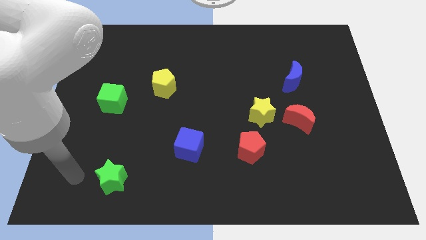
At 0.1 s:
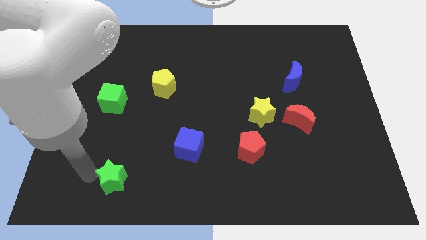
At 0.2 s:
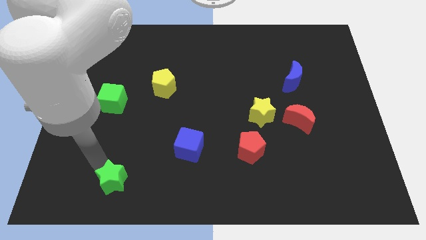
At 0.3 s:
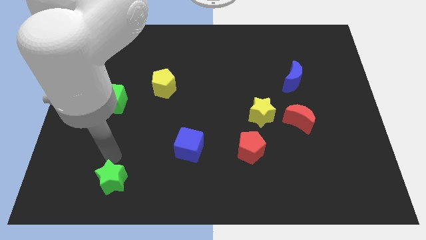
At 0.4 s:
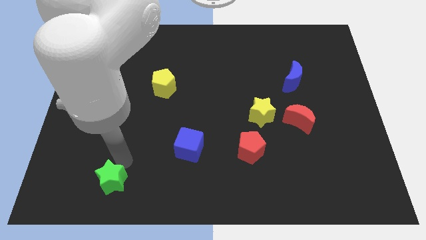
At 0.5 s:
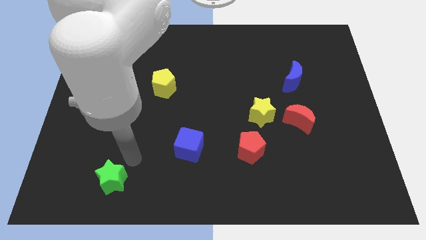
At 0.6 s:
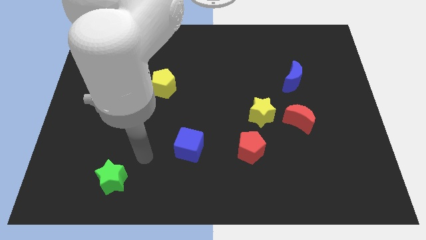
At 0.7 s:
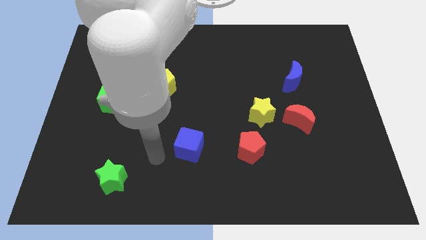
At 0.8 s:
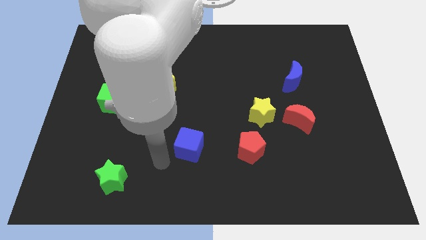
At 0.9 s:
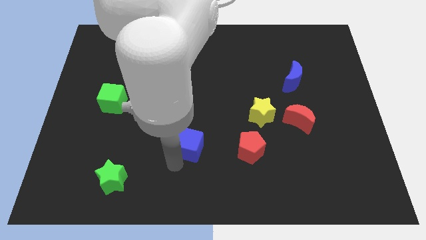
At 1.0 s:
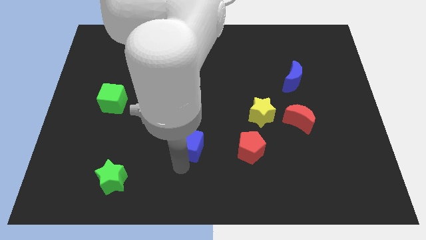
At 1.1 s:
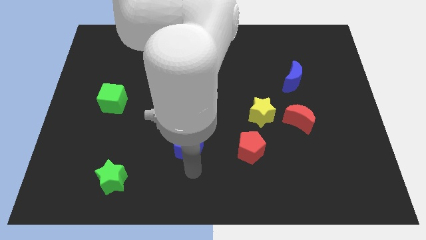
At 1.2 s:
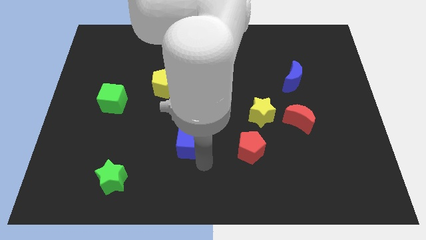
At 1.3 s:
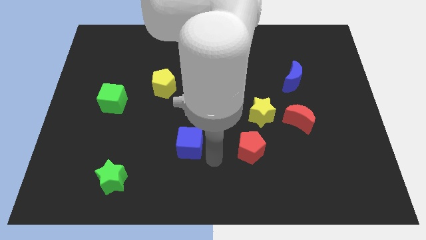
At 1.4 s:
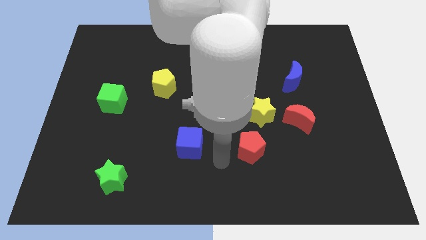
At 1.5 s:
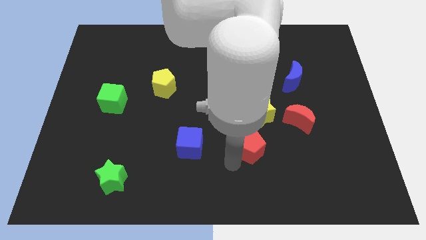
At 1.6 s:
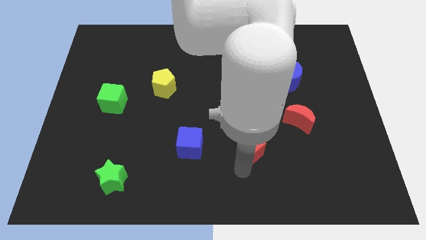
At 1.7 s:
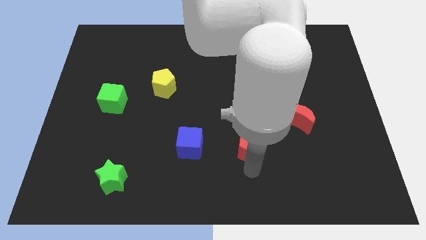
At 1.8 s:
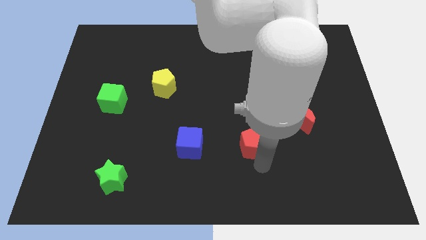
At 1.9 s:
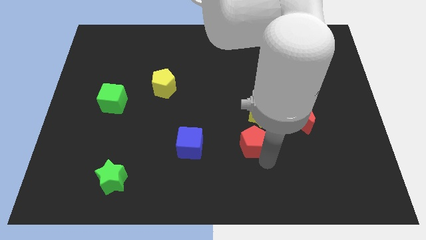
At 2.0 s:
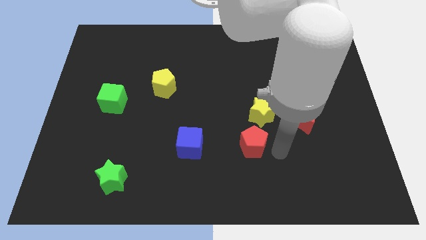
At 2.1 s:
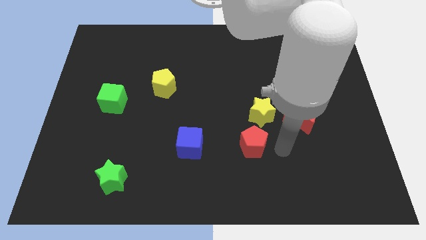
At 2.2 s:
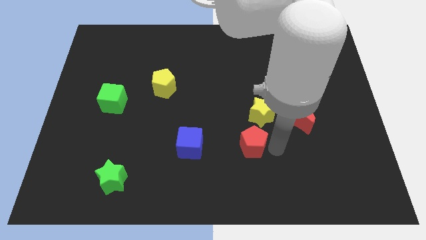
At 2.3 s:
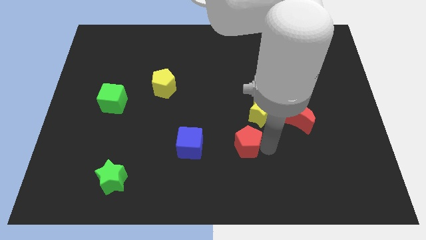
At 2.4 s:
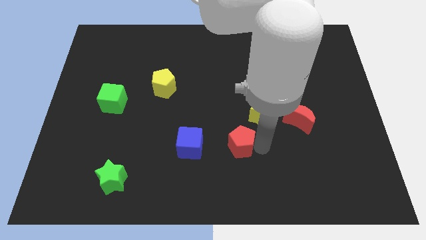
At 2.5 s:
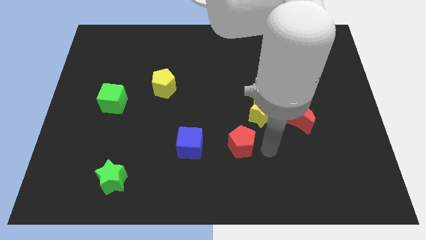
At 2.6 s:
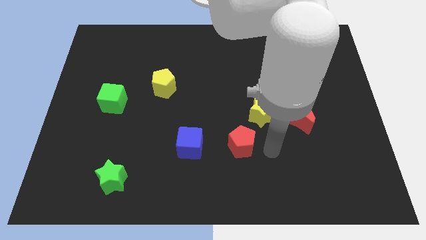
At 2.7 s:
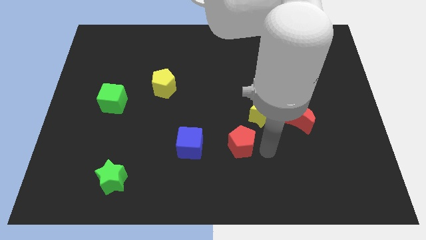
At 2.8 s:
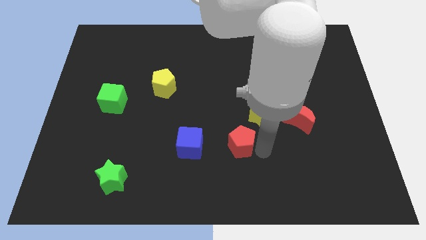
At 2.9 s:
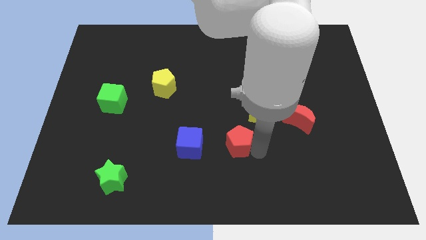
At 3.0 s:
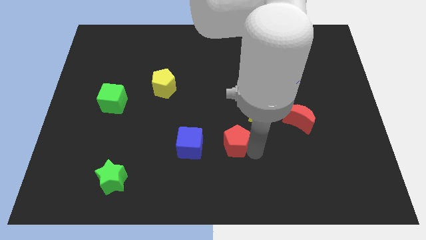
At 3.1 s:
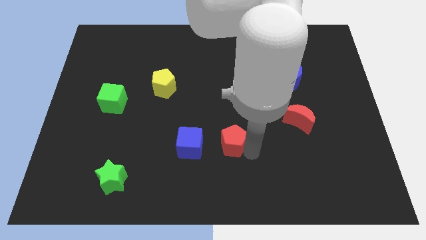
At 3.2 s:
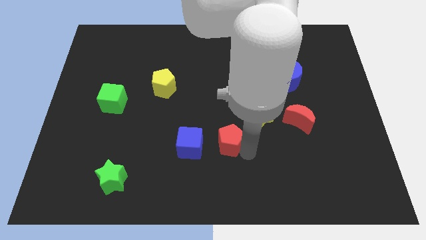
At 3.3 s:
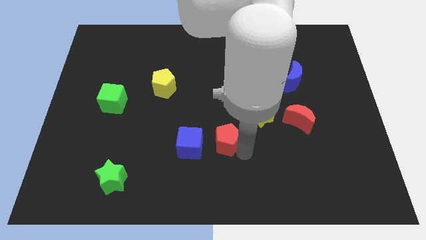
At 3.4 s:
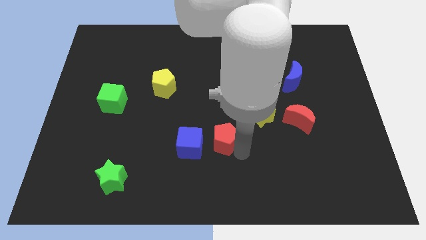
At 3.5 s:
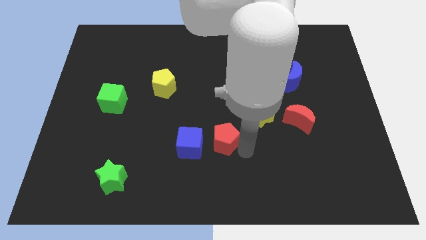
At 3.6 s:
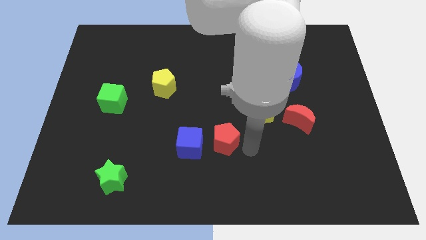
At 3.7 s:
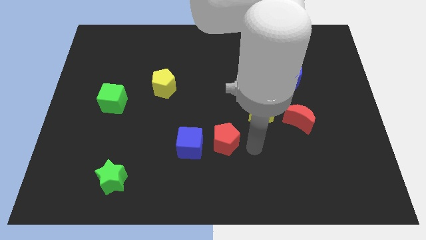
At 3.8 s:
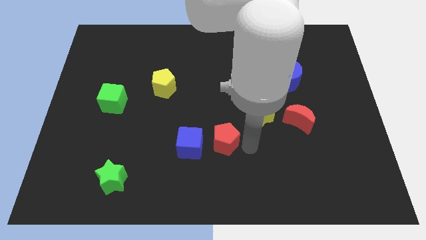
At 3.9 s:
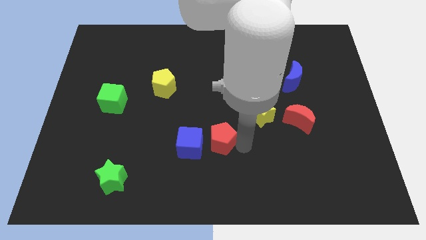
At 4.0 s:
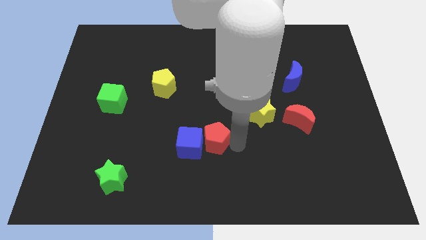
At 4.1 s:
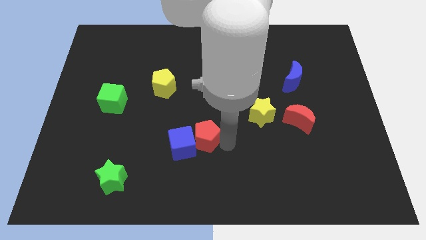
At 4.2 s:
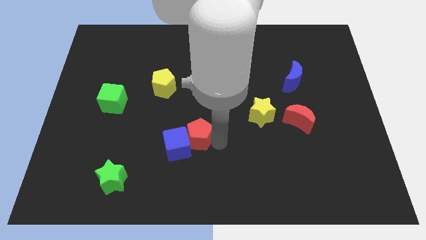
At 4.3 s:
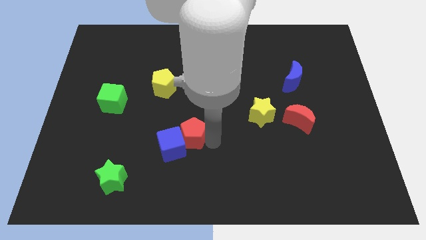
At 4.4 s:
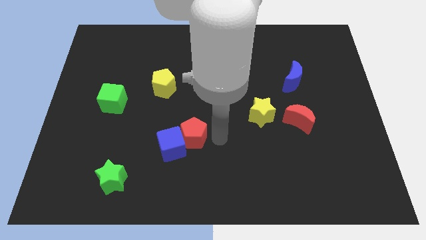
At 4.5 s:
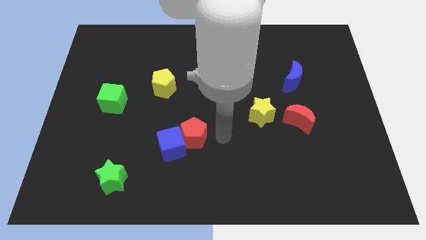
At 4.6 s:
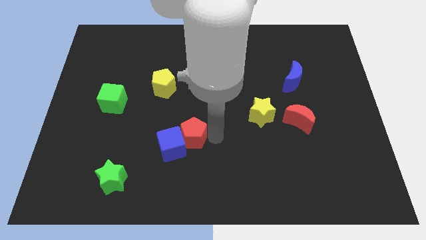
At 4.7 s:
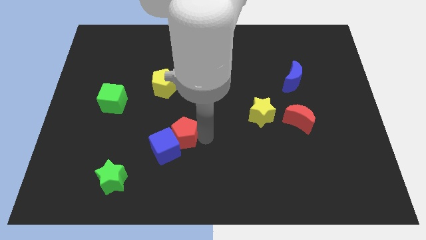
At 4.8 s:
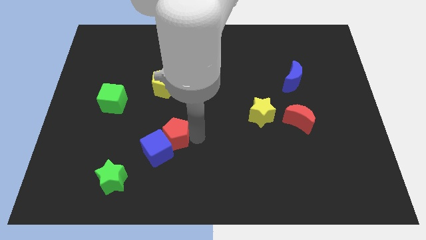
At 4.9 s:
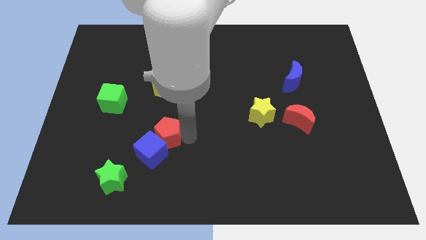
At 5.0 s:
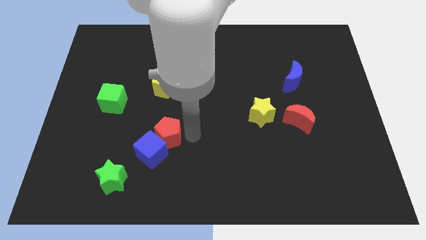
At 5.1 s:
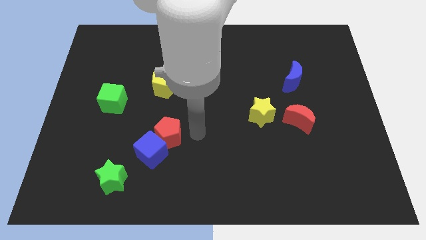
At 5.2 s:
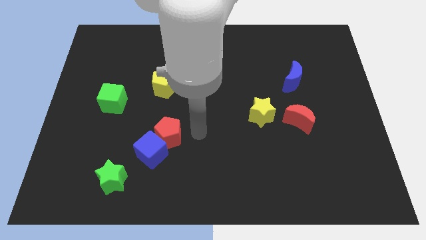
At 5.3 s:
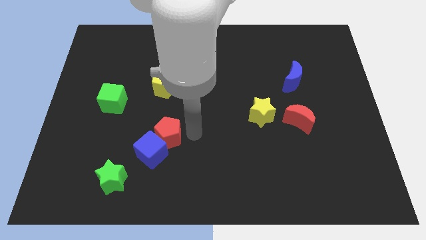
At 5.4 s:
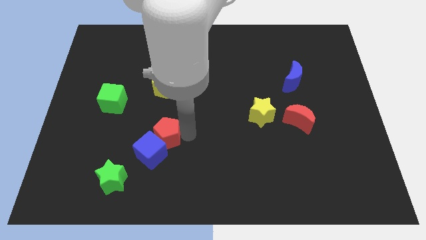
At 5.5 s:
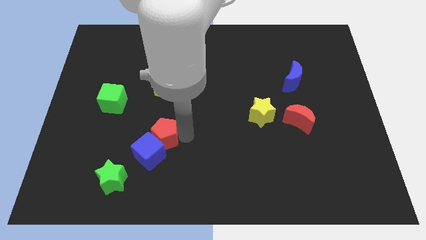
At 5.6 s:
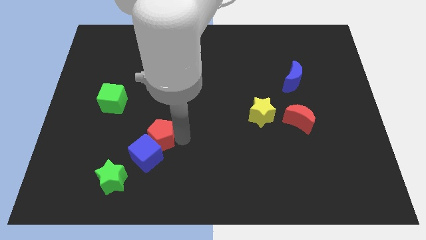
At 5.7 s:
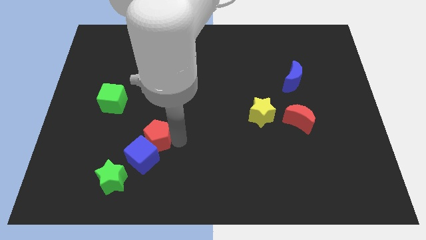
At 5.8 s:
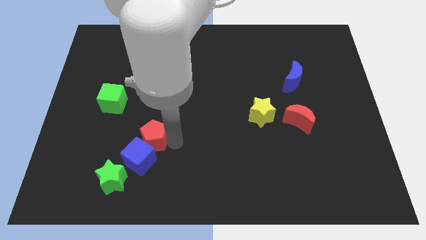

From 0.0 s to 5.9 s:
push the red pentagon to the left

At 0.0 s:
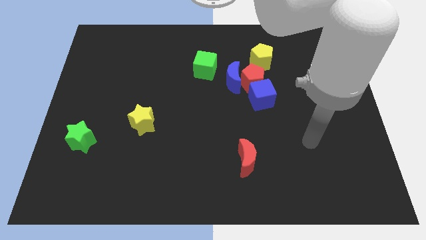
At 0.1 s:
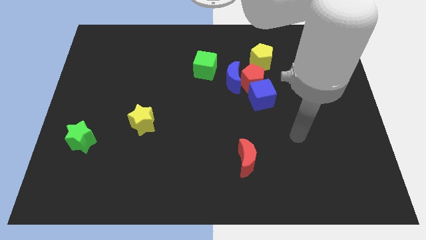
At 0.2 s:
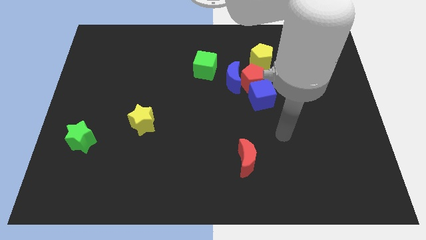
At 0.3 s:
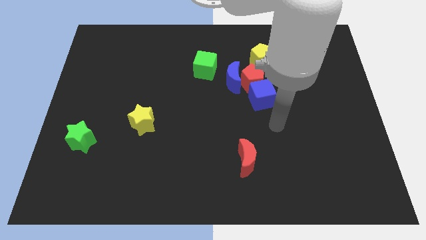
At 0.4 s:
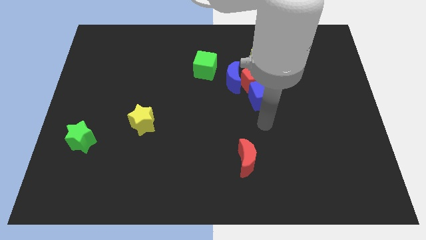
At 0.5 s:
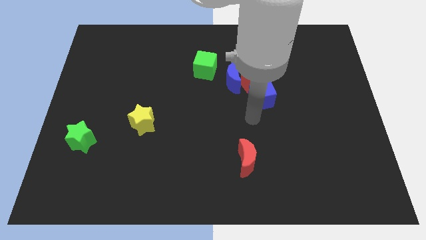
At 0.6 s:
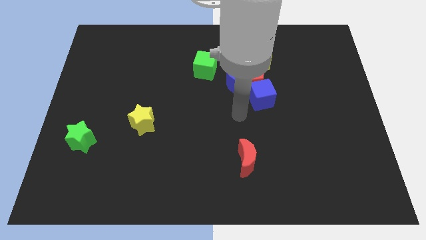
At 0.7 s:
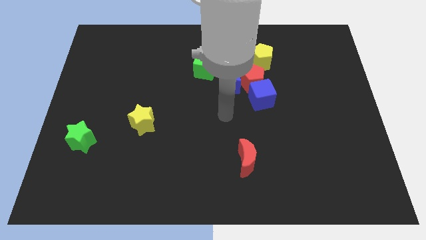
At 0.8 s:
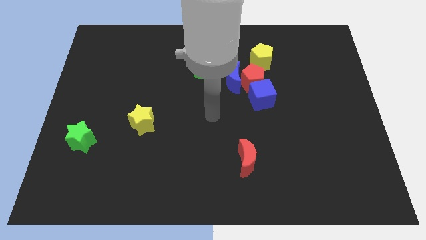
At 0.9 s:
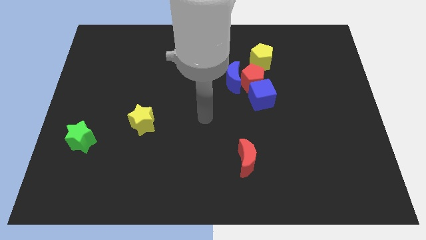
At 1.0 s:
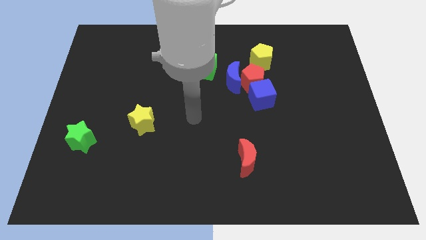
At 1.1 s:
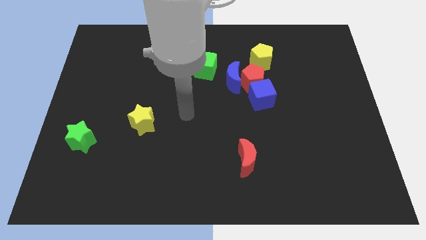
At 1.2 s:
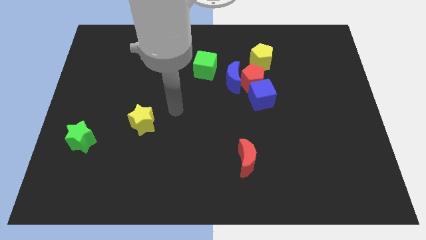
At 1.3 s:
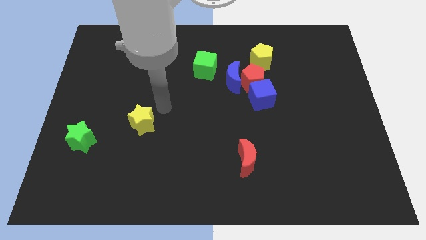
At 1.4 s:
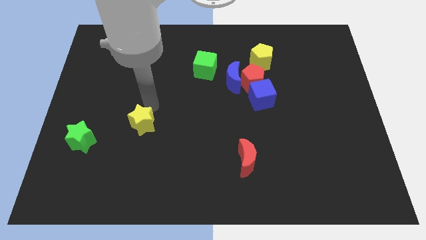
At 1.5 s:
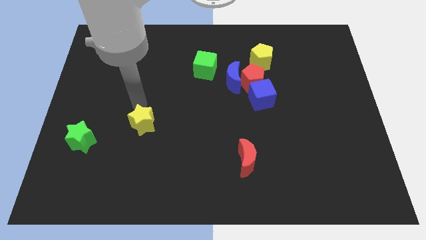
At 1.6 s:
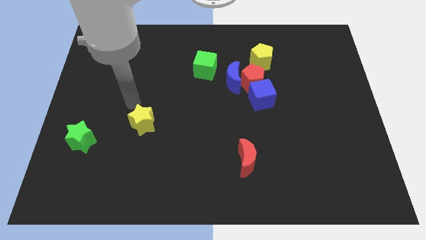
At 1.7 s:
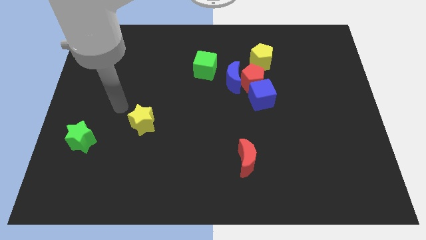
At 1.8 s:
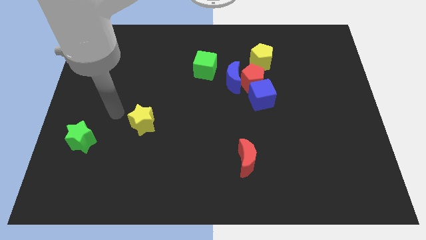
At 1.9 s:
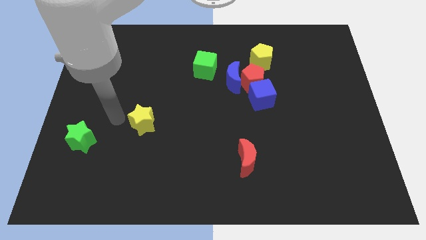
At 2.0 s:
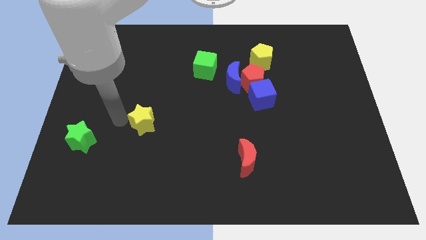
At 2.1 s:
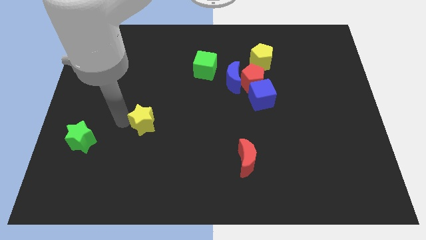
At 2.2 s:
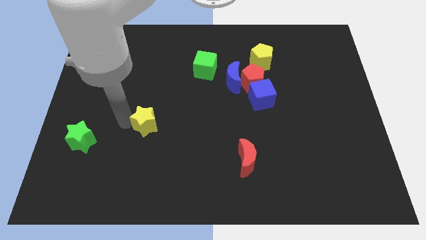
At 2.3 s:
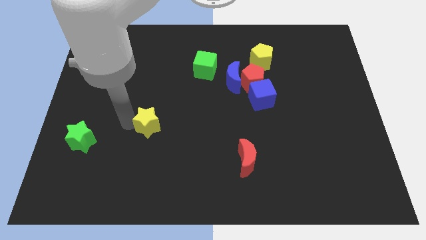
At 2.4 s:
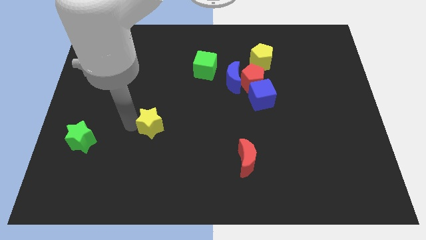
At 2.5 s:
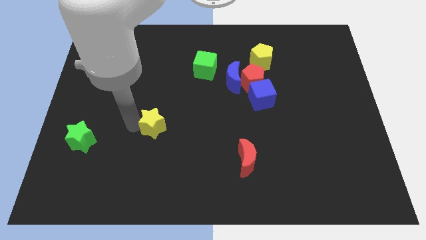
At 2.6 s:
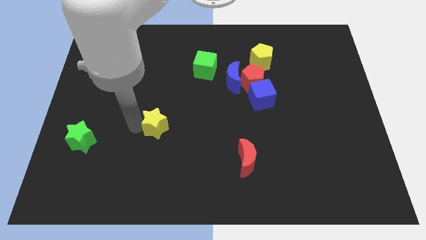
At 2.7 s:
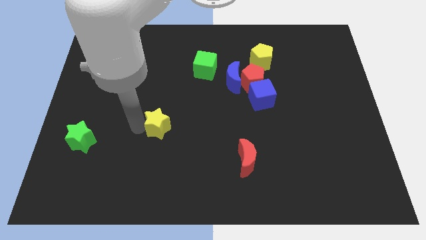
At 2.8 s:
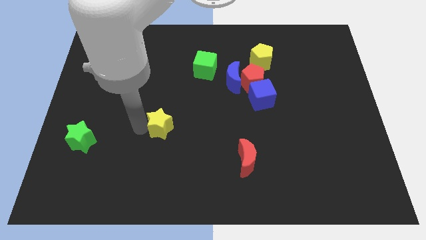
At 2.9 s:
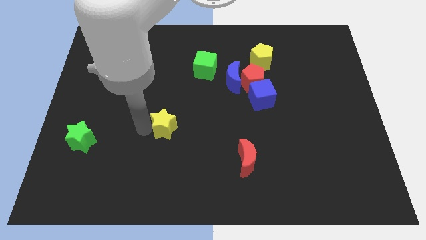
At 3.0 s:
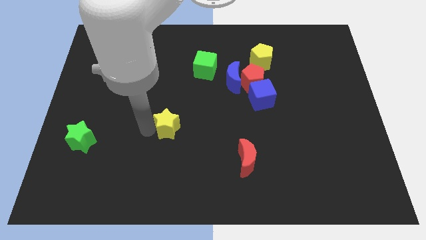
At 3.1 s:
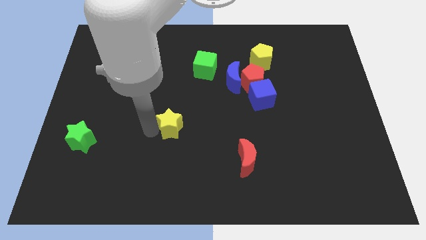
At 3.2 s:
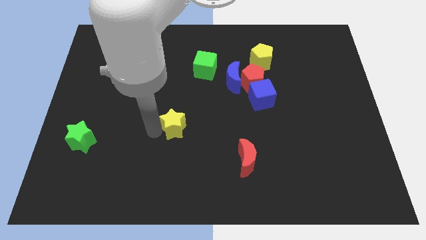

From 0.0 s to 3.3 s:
push the yellow star a little bit to the right
